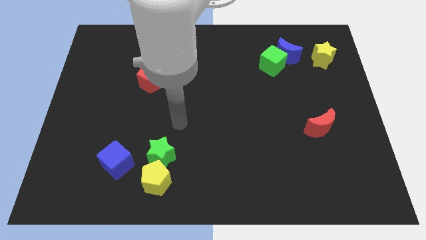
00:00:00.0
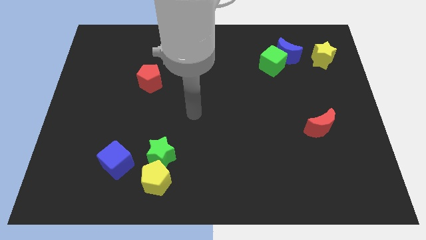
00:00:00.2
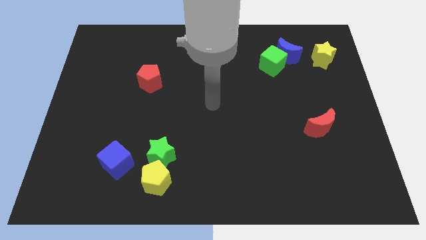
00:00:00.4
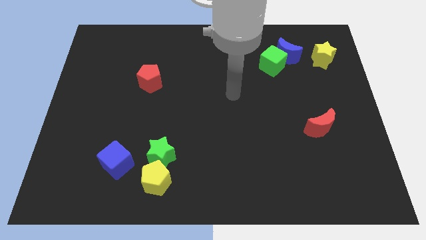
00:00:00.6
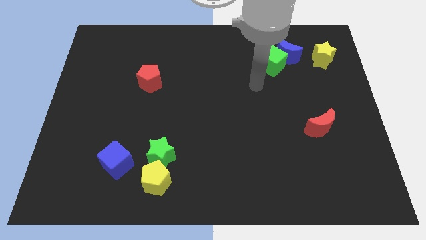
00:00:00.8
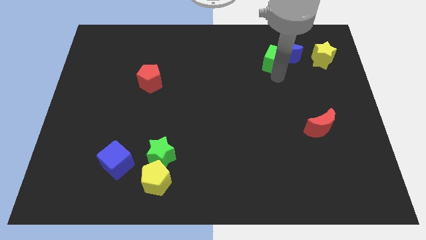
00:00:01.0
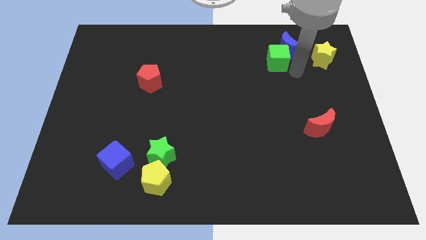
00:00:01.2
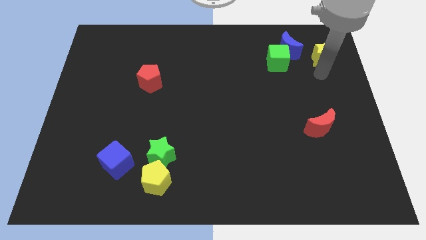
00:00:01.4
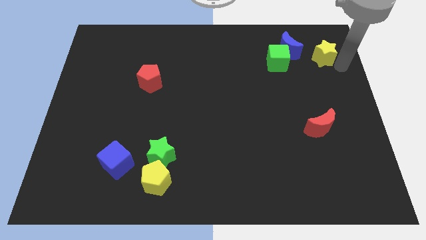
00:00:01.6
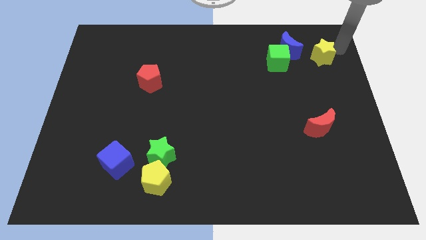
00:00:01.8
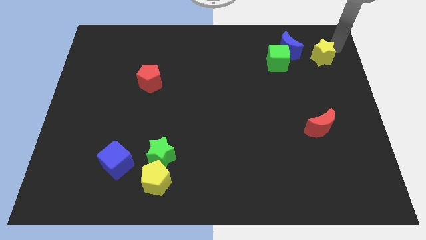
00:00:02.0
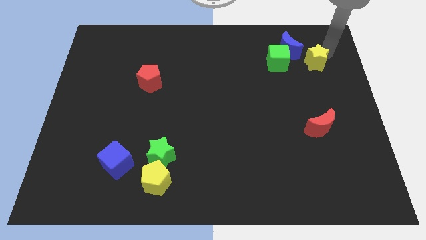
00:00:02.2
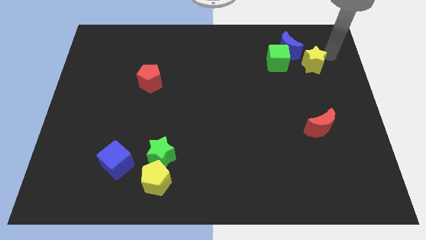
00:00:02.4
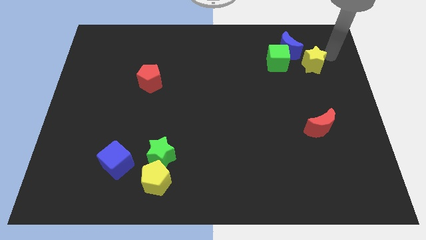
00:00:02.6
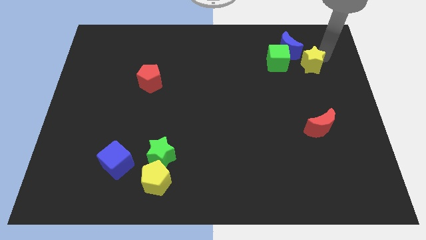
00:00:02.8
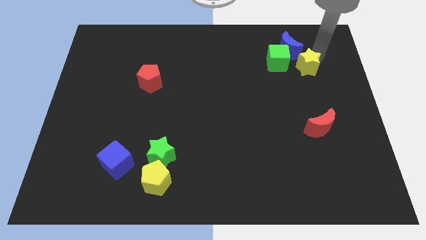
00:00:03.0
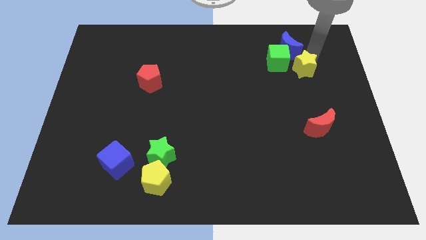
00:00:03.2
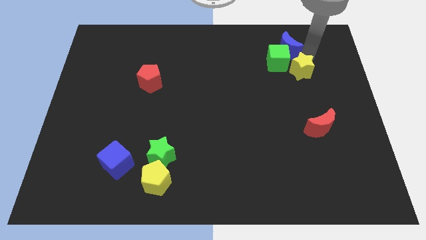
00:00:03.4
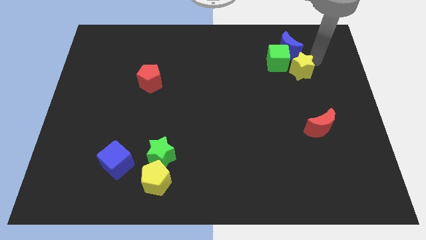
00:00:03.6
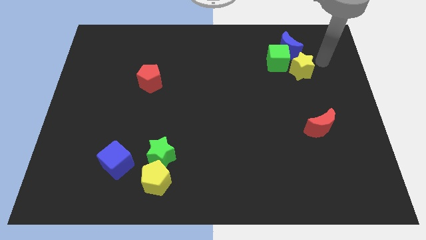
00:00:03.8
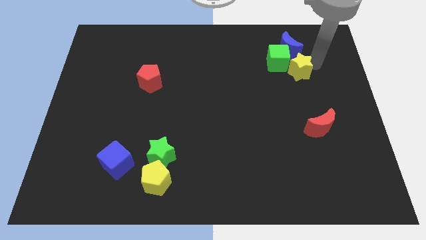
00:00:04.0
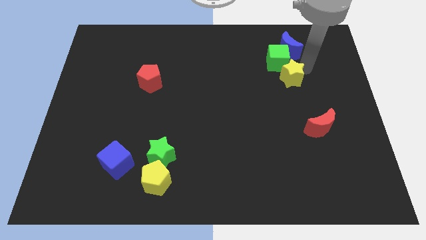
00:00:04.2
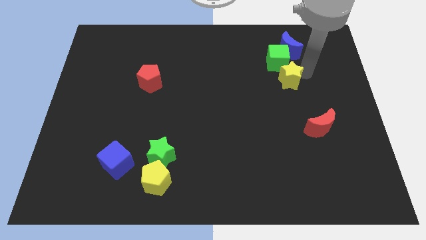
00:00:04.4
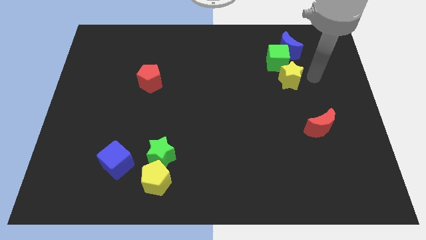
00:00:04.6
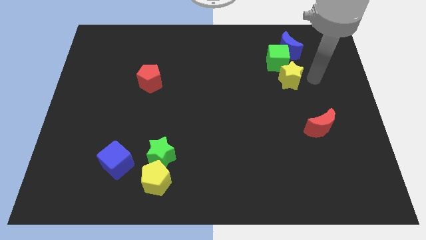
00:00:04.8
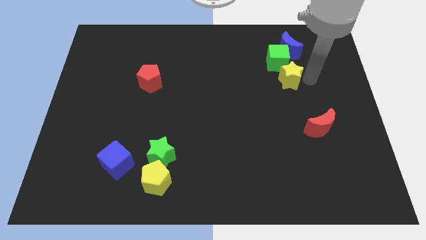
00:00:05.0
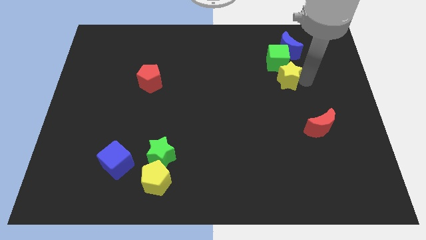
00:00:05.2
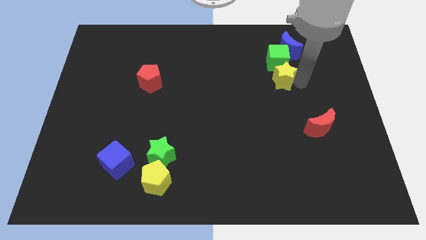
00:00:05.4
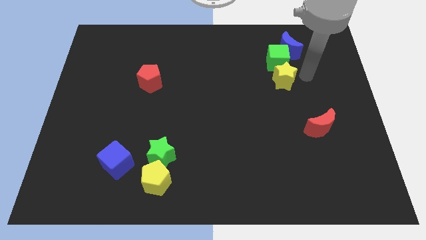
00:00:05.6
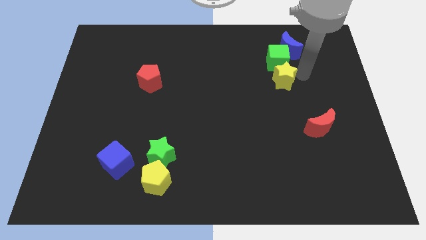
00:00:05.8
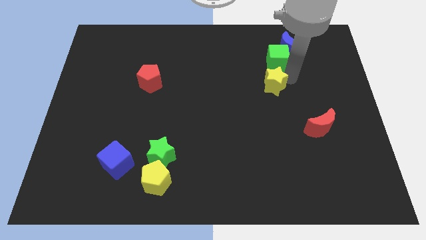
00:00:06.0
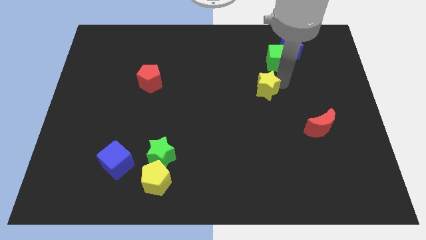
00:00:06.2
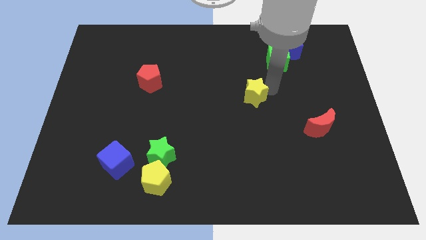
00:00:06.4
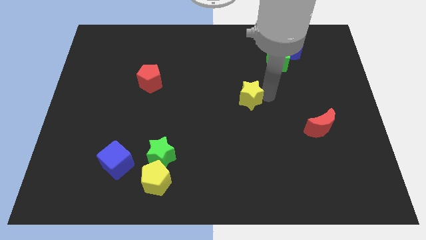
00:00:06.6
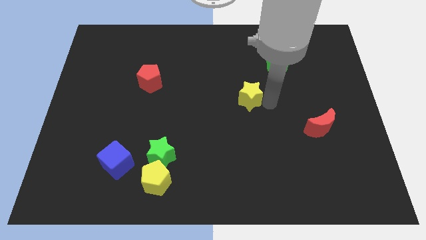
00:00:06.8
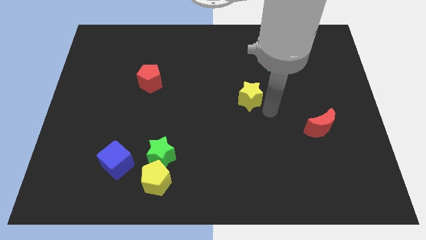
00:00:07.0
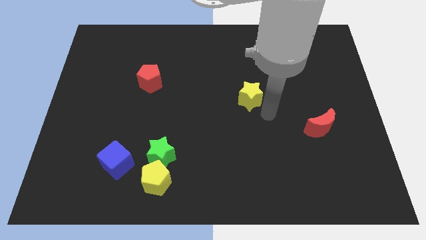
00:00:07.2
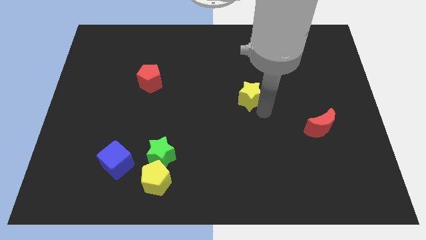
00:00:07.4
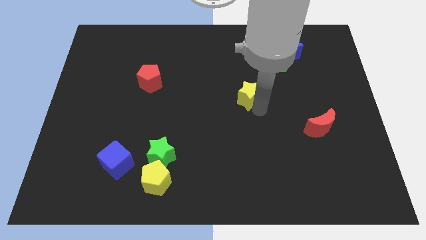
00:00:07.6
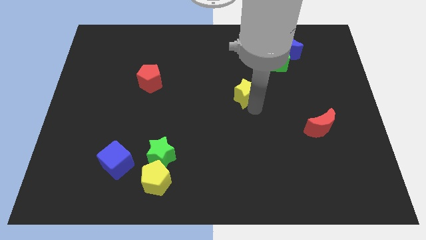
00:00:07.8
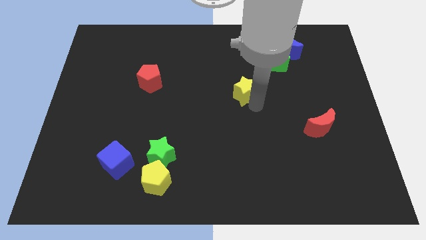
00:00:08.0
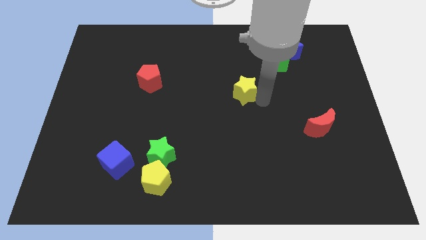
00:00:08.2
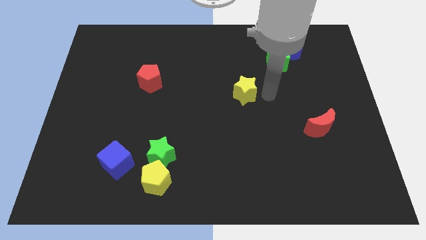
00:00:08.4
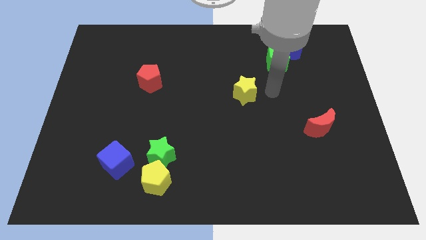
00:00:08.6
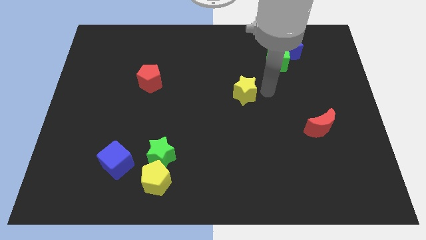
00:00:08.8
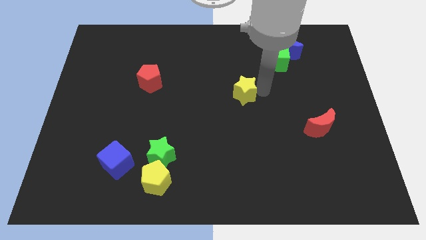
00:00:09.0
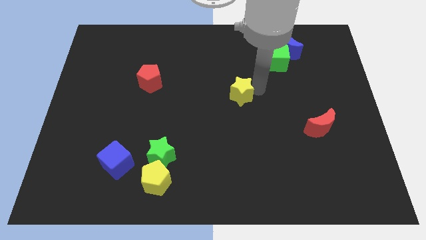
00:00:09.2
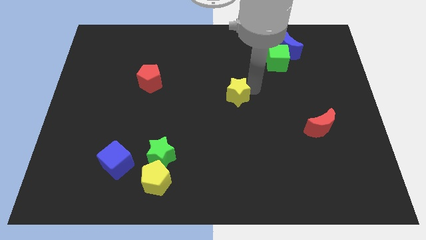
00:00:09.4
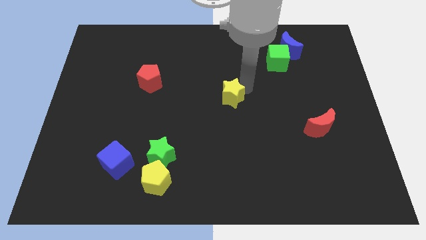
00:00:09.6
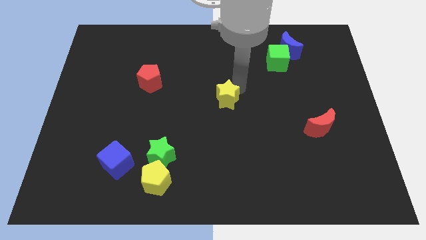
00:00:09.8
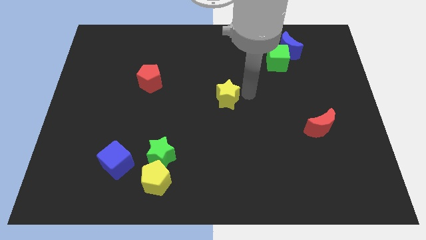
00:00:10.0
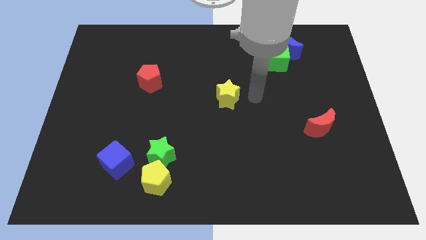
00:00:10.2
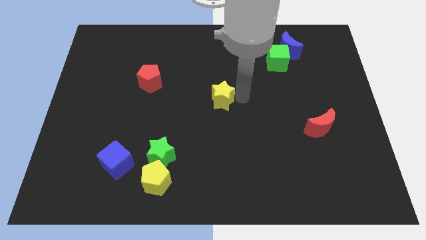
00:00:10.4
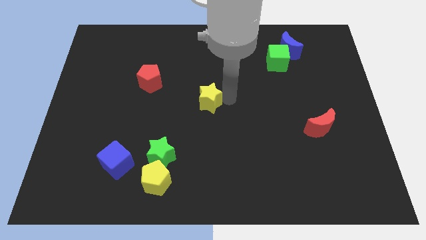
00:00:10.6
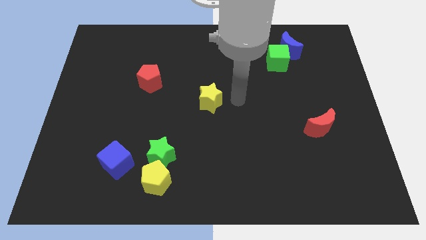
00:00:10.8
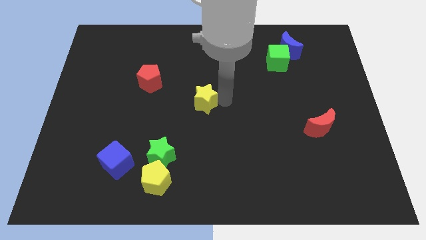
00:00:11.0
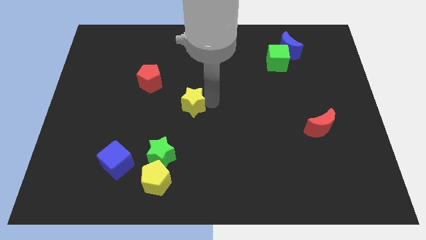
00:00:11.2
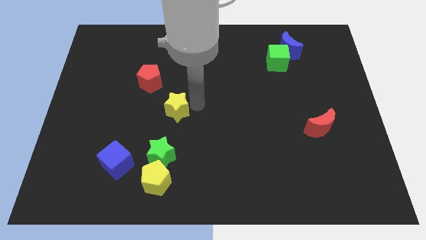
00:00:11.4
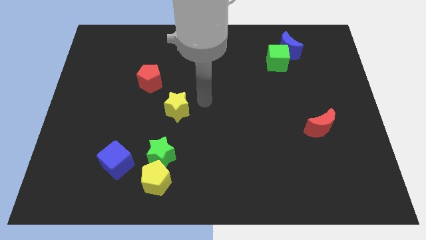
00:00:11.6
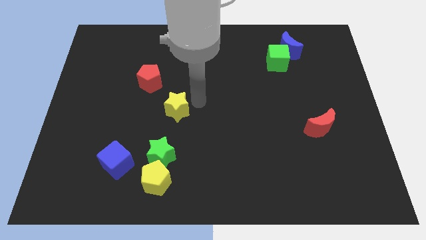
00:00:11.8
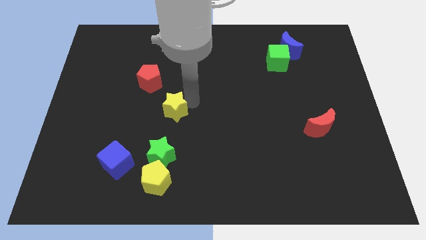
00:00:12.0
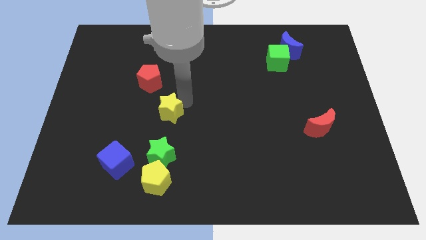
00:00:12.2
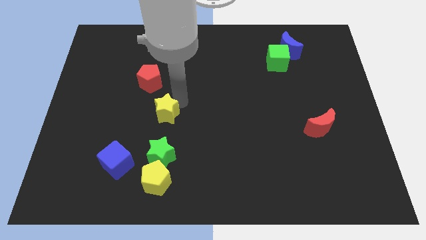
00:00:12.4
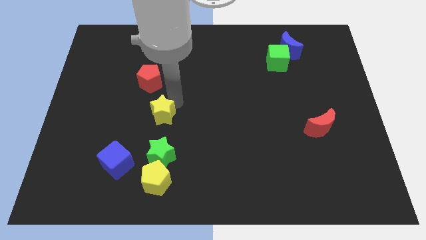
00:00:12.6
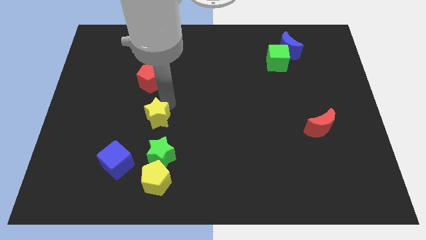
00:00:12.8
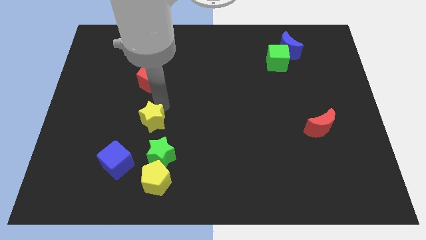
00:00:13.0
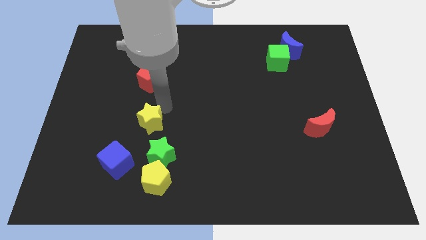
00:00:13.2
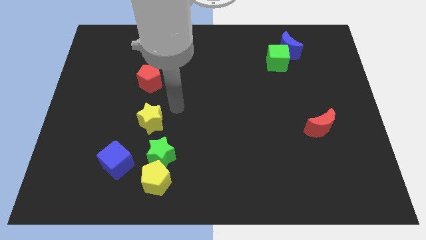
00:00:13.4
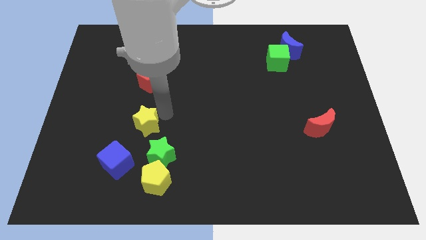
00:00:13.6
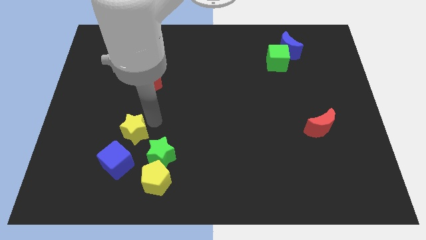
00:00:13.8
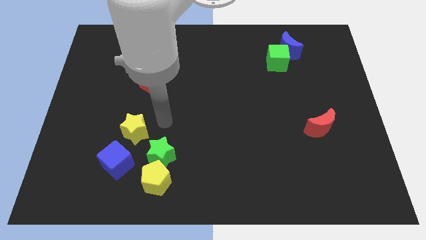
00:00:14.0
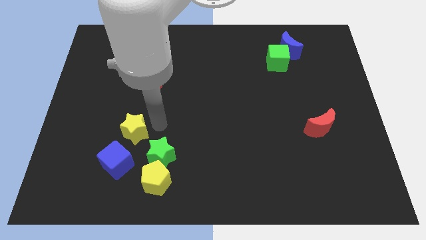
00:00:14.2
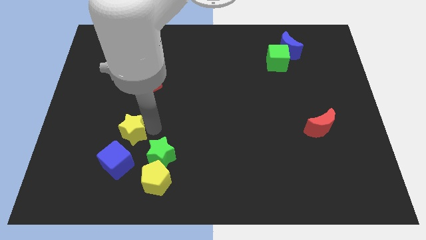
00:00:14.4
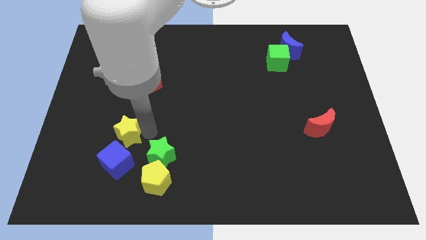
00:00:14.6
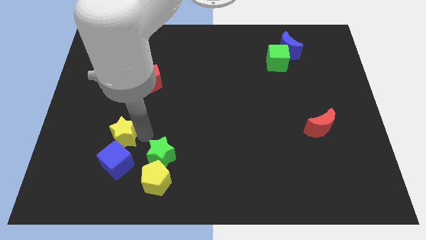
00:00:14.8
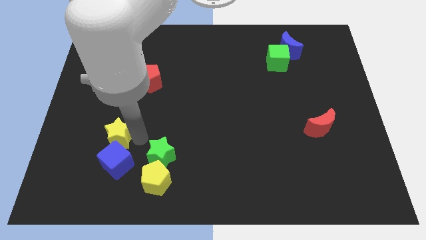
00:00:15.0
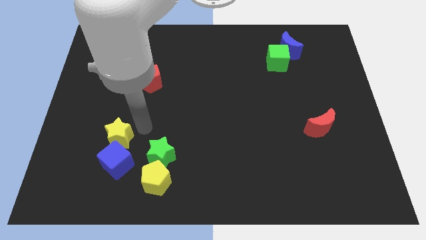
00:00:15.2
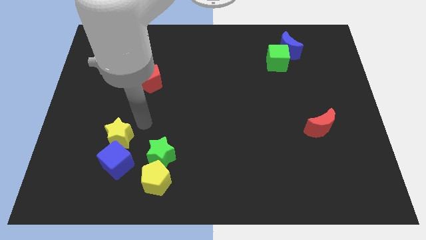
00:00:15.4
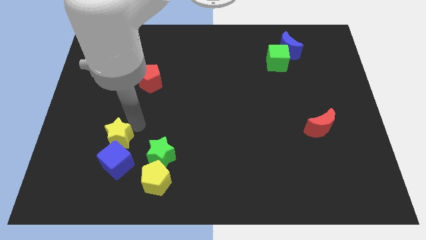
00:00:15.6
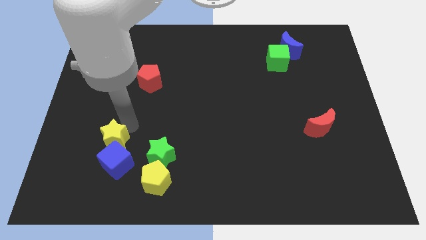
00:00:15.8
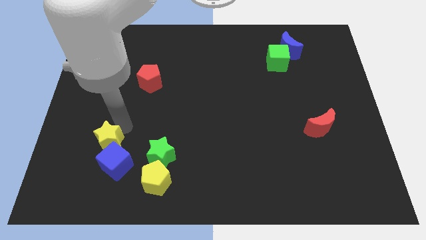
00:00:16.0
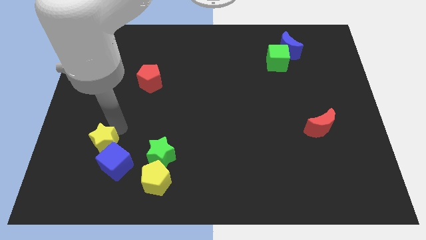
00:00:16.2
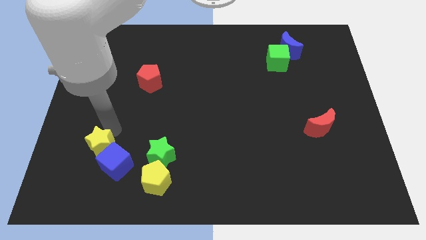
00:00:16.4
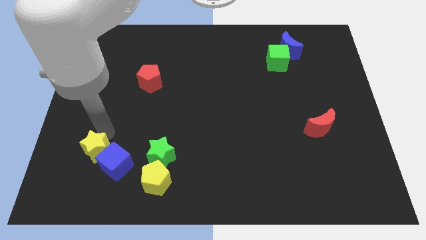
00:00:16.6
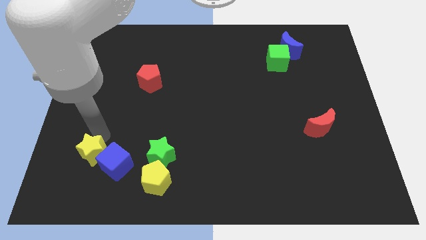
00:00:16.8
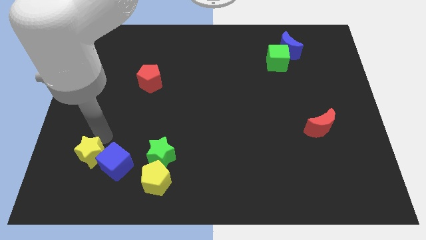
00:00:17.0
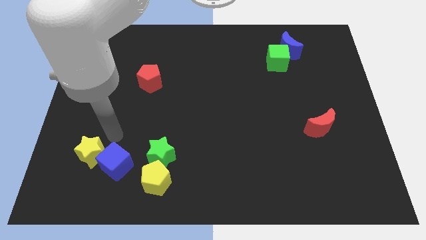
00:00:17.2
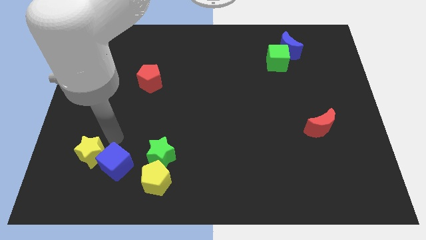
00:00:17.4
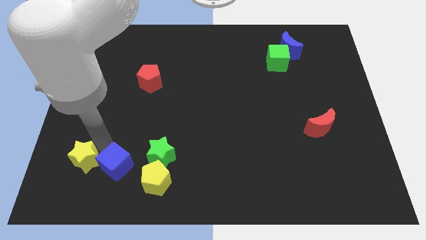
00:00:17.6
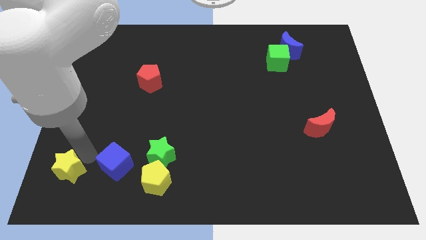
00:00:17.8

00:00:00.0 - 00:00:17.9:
push the yellow star to the lower left corner
